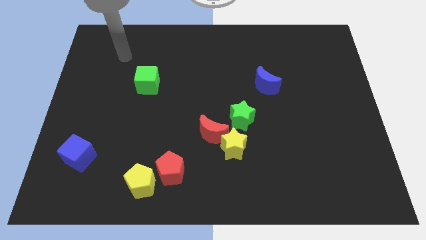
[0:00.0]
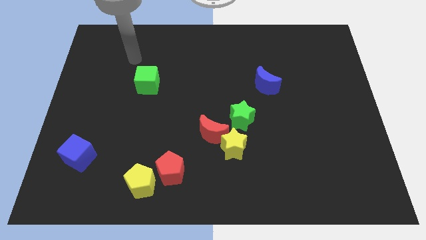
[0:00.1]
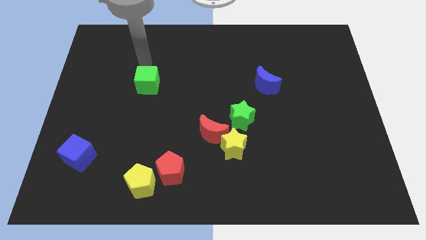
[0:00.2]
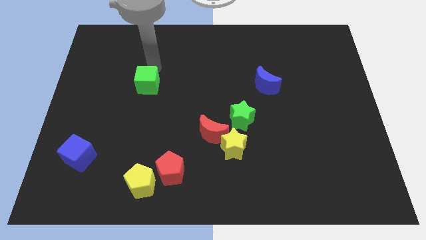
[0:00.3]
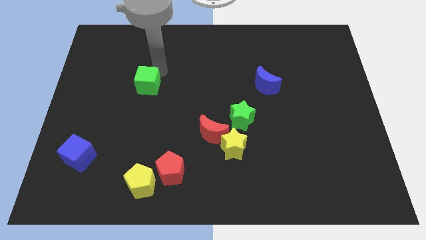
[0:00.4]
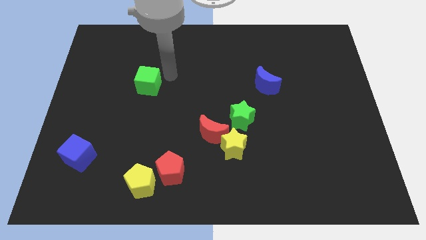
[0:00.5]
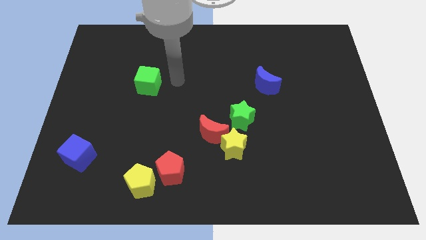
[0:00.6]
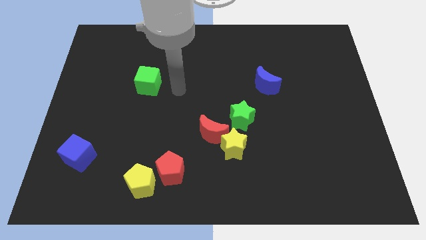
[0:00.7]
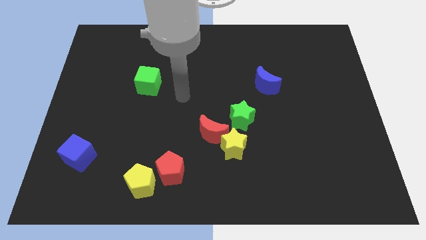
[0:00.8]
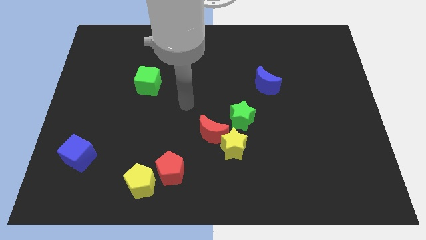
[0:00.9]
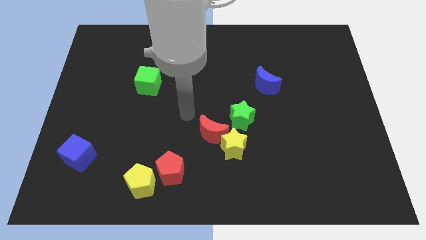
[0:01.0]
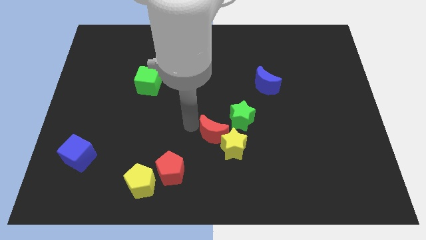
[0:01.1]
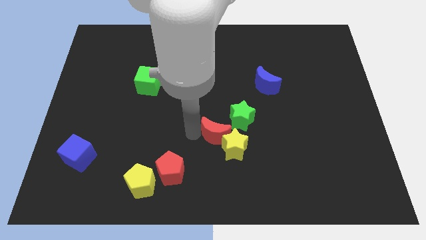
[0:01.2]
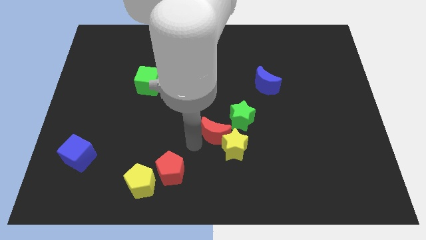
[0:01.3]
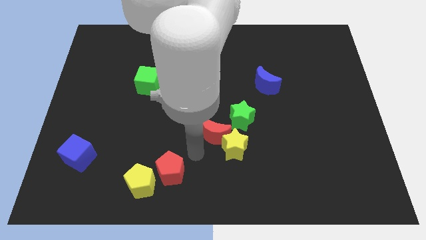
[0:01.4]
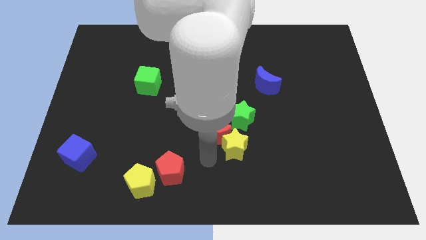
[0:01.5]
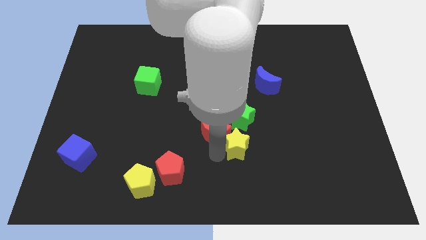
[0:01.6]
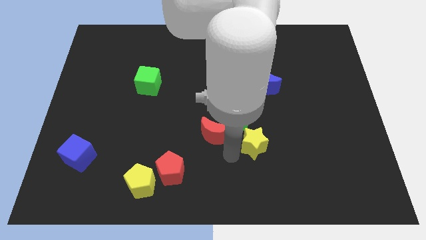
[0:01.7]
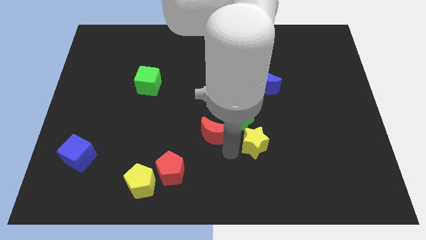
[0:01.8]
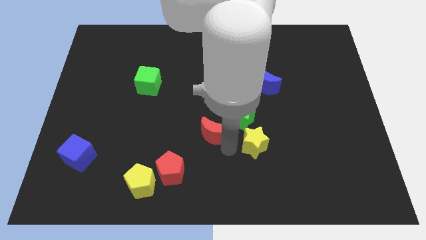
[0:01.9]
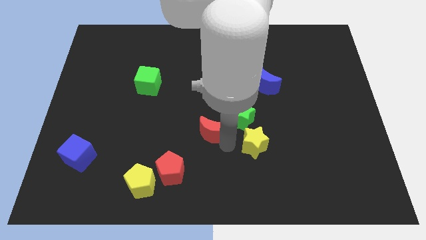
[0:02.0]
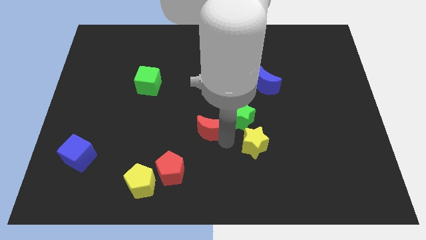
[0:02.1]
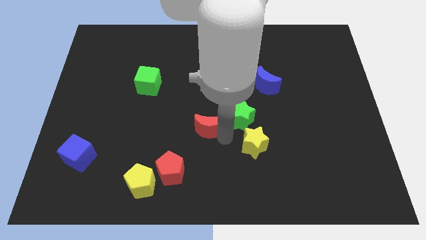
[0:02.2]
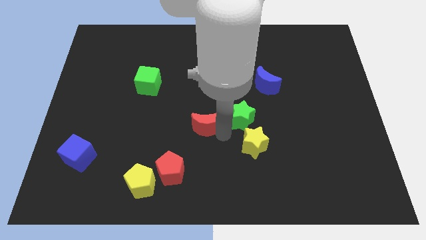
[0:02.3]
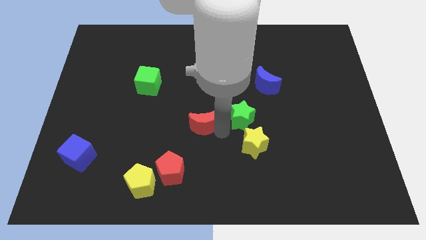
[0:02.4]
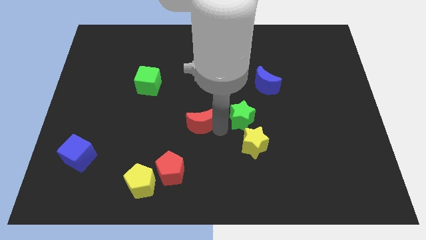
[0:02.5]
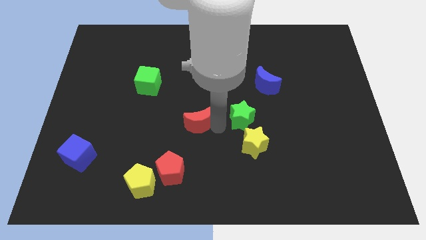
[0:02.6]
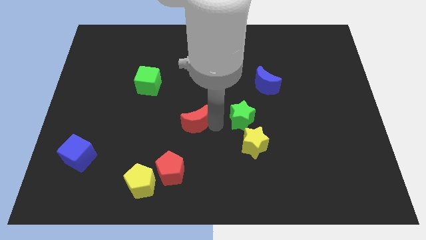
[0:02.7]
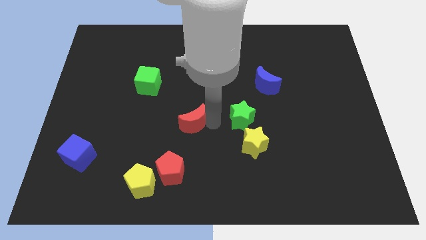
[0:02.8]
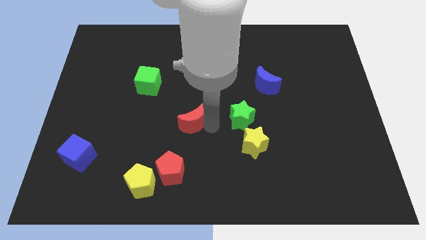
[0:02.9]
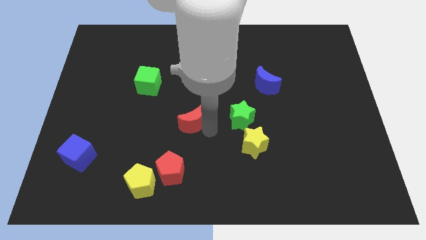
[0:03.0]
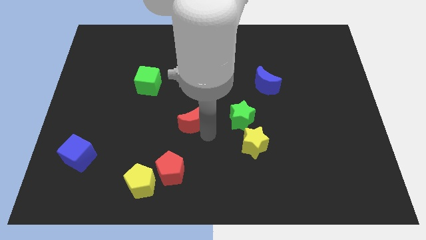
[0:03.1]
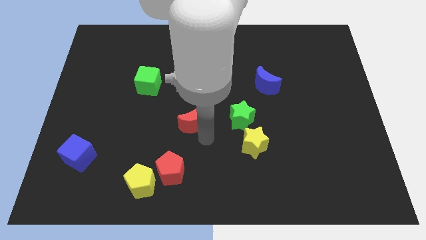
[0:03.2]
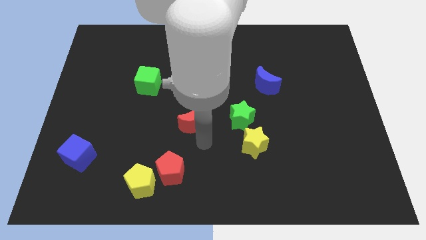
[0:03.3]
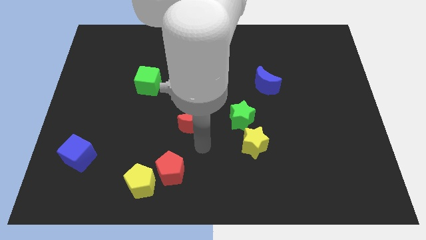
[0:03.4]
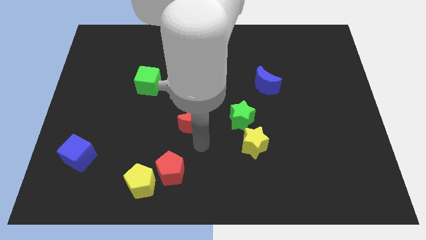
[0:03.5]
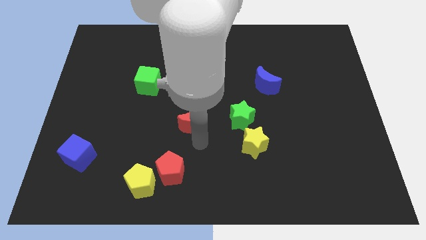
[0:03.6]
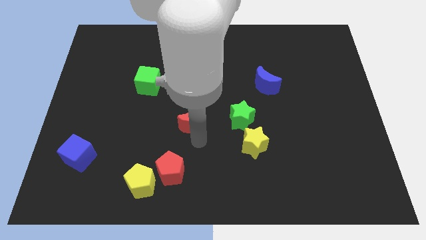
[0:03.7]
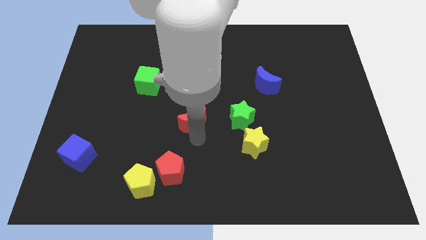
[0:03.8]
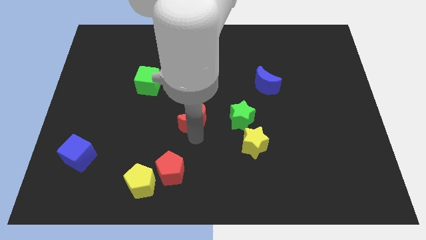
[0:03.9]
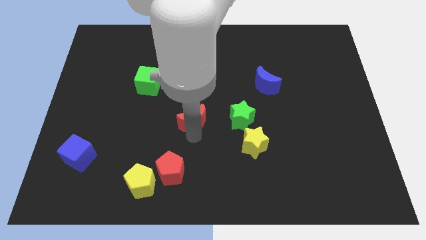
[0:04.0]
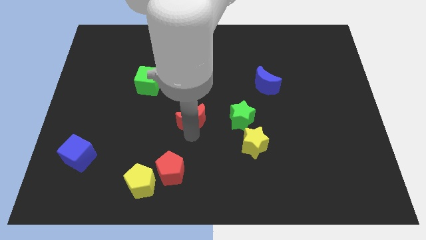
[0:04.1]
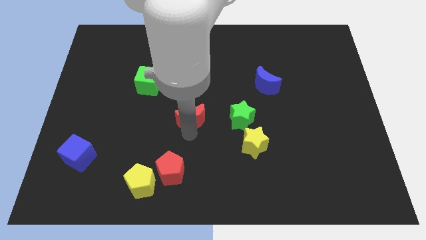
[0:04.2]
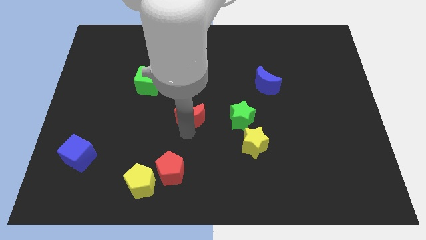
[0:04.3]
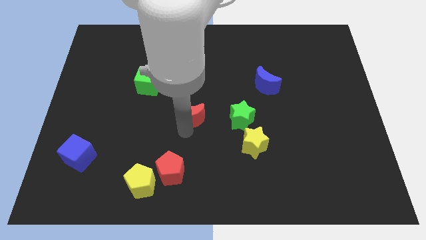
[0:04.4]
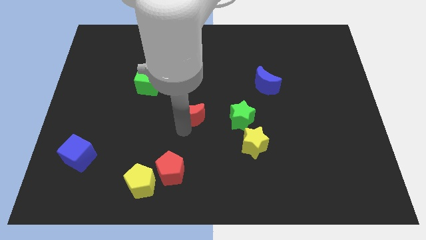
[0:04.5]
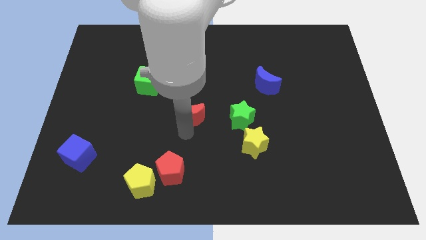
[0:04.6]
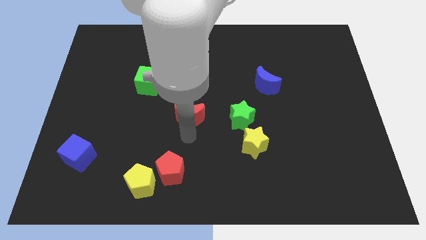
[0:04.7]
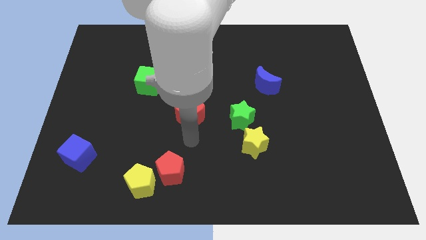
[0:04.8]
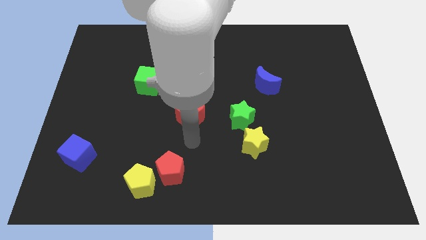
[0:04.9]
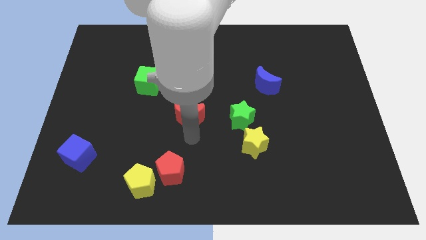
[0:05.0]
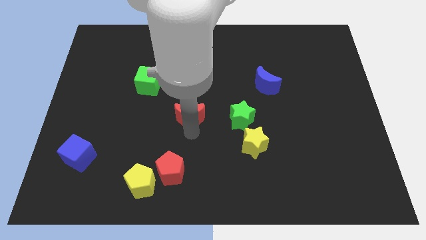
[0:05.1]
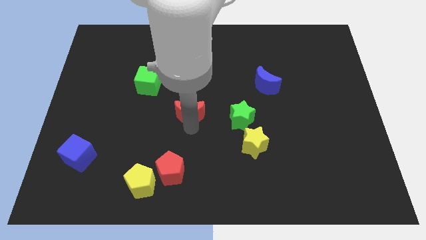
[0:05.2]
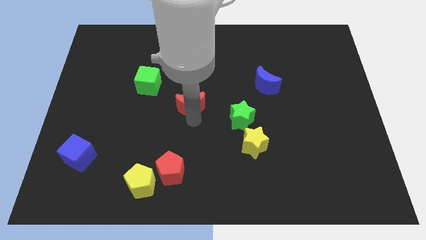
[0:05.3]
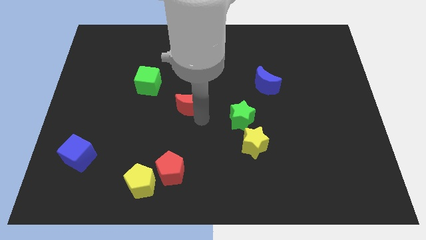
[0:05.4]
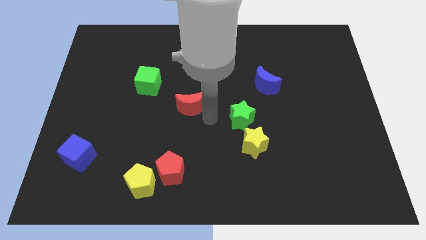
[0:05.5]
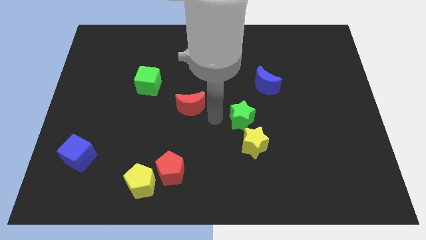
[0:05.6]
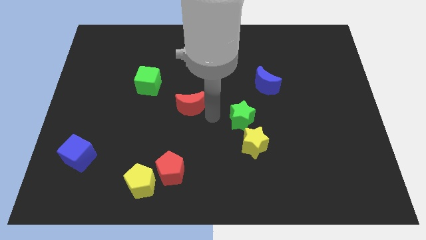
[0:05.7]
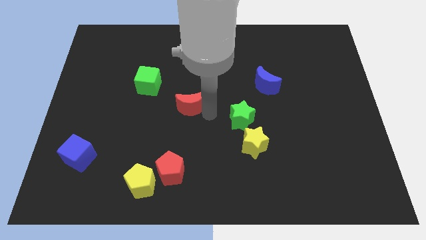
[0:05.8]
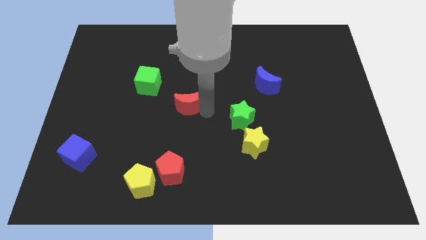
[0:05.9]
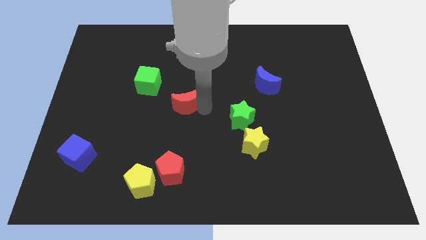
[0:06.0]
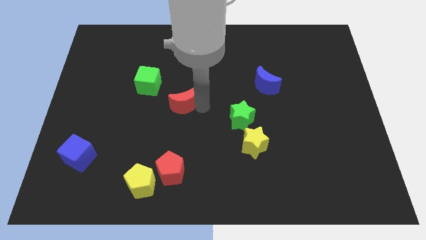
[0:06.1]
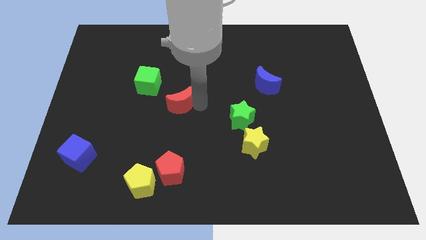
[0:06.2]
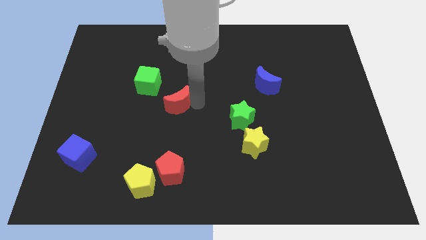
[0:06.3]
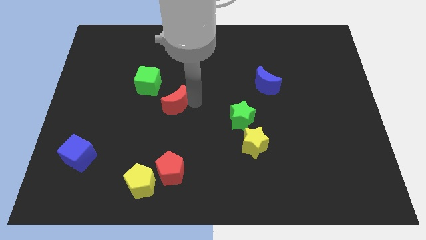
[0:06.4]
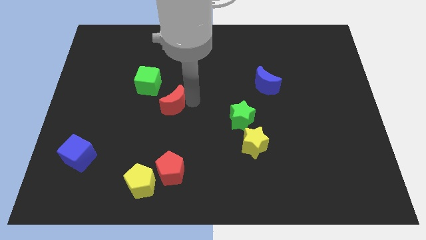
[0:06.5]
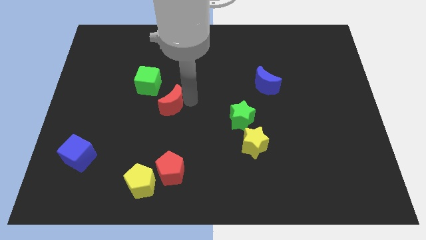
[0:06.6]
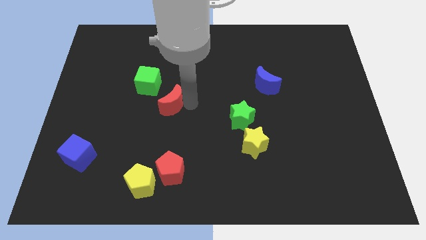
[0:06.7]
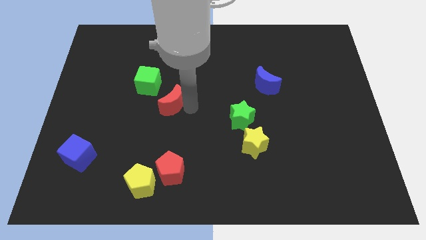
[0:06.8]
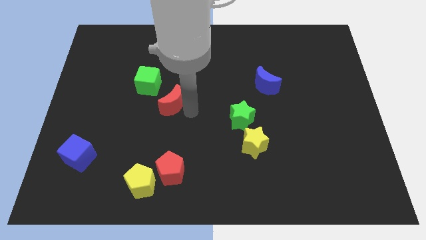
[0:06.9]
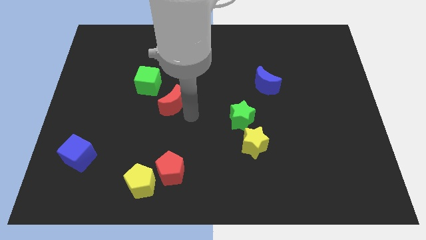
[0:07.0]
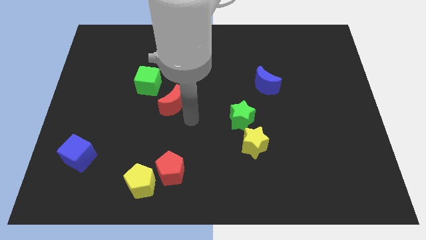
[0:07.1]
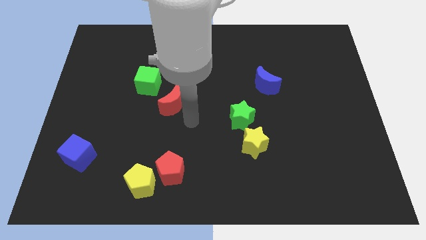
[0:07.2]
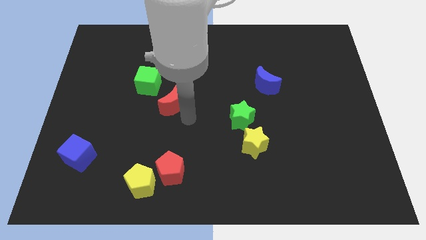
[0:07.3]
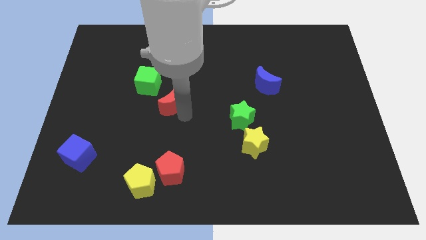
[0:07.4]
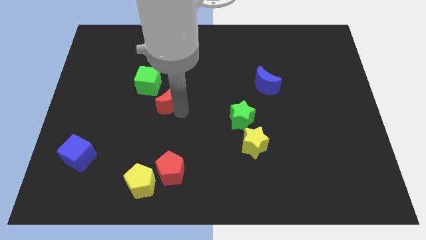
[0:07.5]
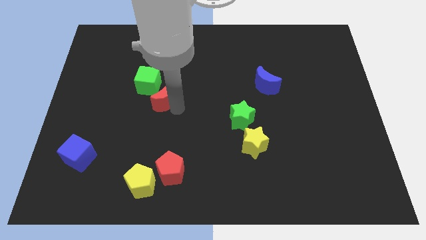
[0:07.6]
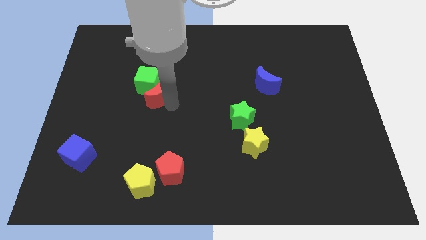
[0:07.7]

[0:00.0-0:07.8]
move the red moon towards the green cube

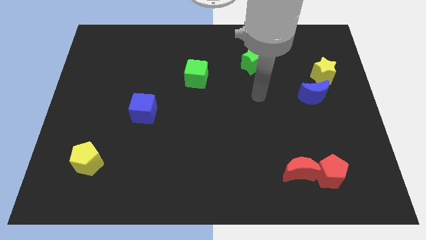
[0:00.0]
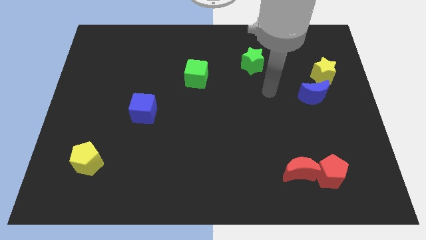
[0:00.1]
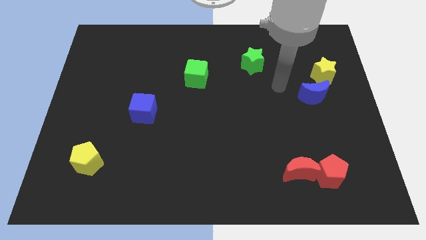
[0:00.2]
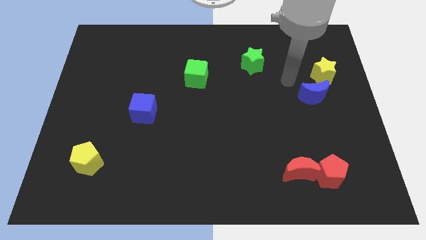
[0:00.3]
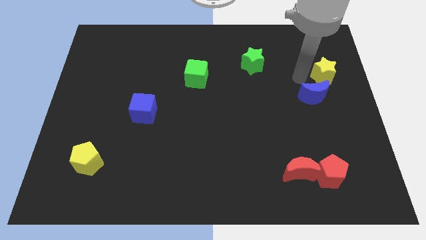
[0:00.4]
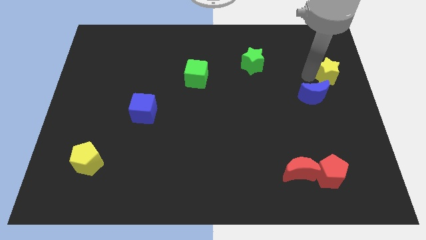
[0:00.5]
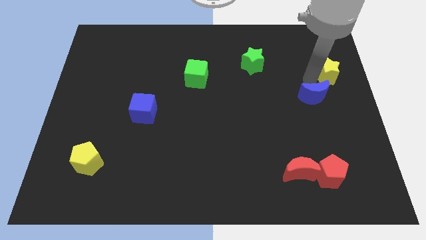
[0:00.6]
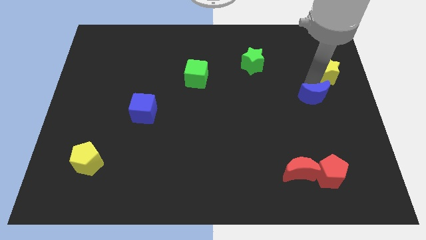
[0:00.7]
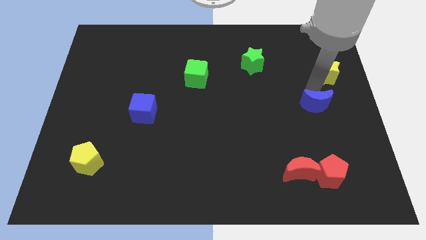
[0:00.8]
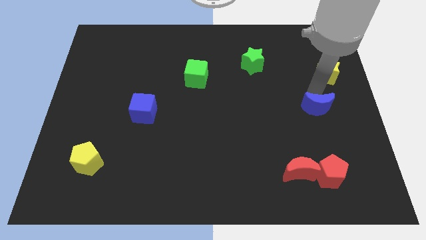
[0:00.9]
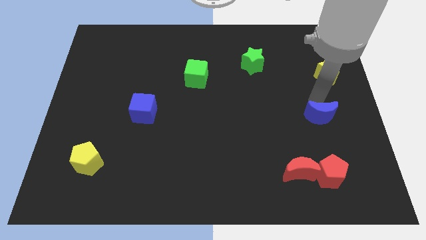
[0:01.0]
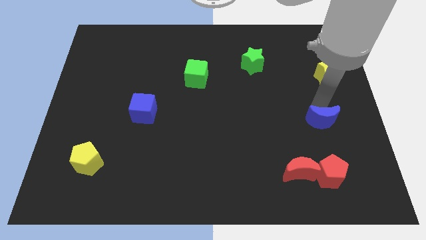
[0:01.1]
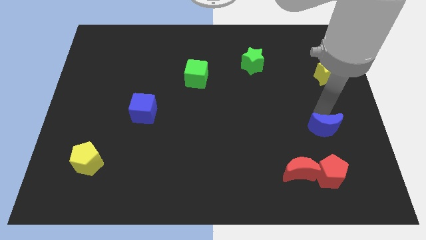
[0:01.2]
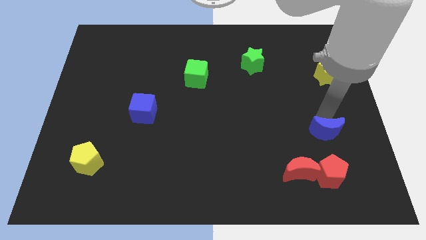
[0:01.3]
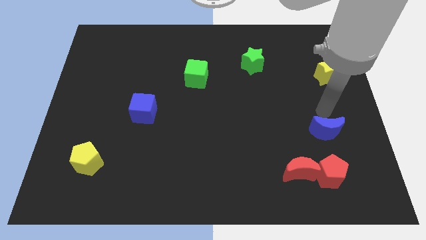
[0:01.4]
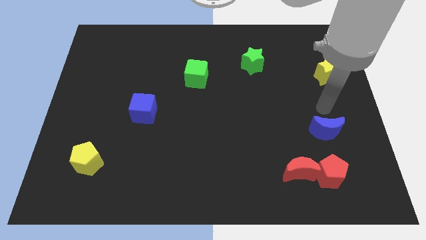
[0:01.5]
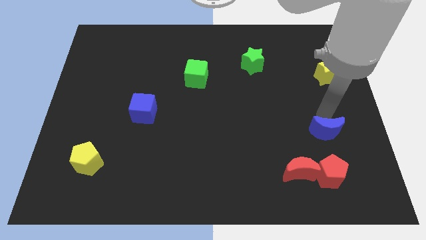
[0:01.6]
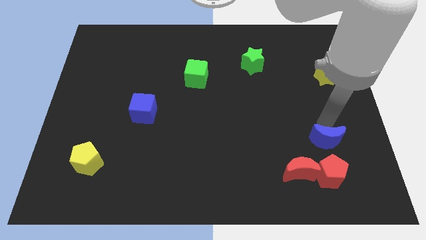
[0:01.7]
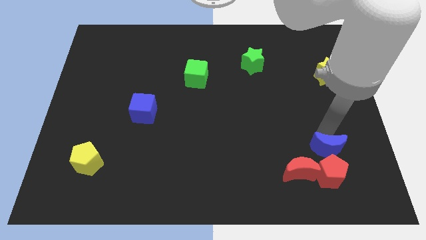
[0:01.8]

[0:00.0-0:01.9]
push the blue moon next to the red pentagon
